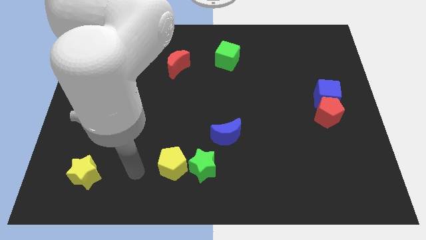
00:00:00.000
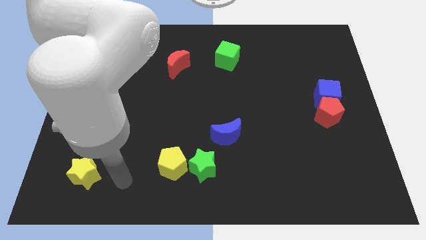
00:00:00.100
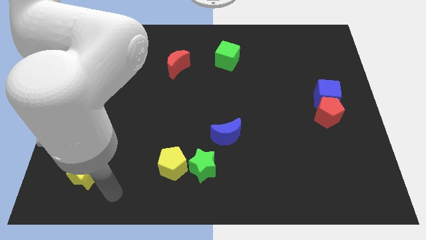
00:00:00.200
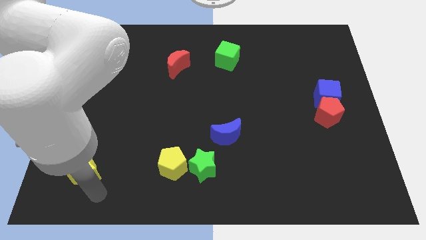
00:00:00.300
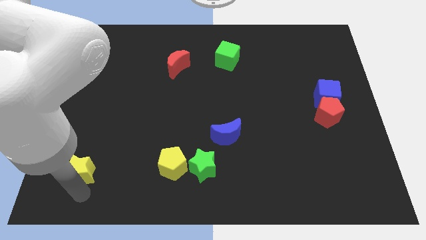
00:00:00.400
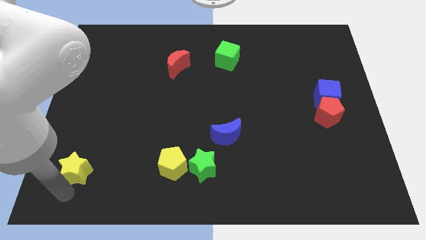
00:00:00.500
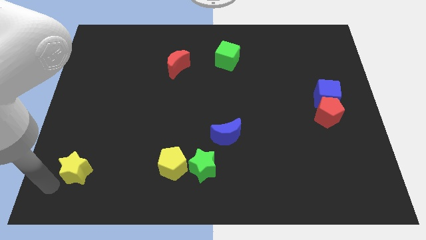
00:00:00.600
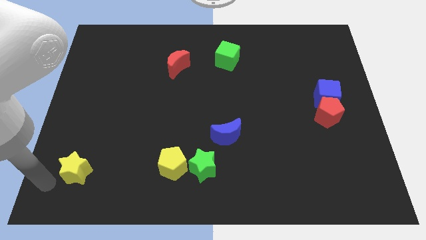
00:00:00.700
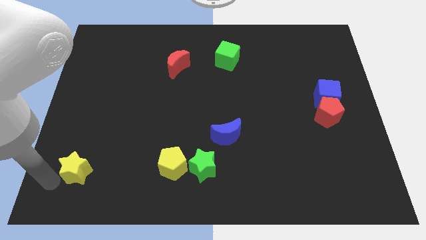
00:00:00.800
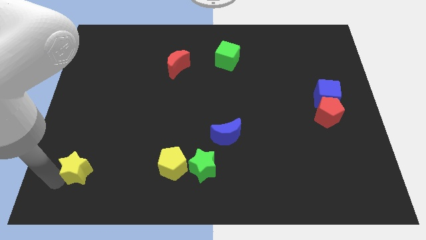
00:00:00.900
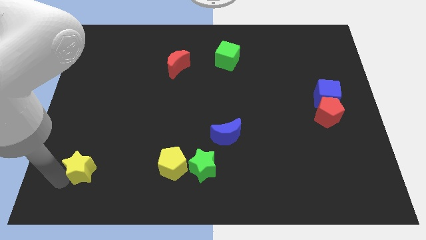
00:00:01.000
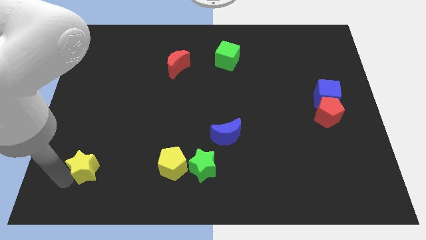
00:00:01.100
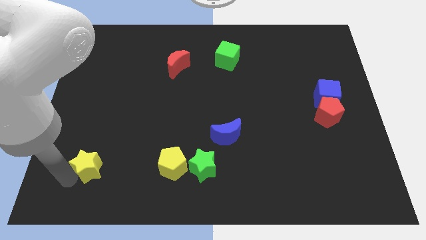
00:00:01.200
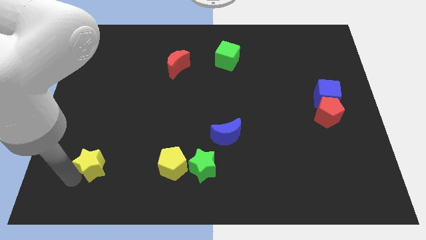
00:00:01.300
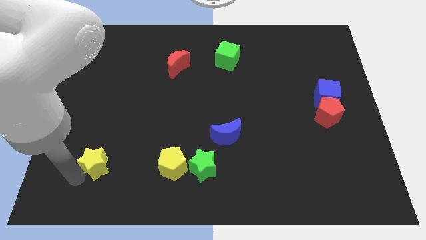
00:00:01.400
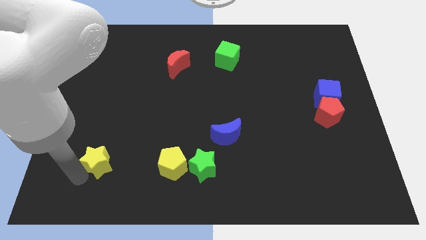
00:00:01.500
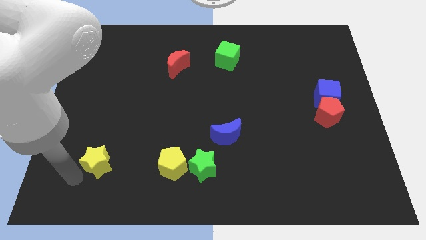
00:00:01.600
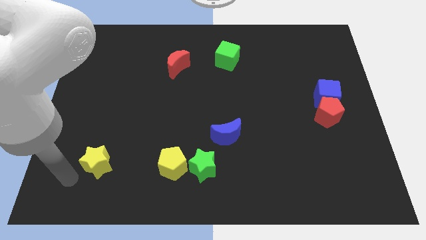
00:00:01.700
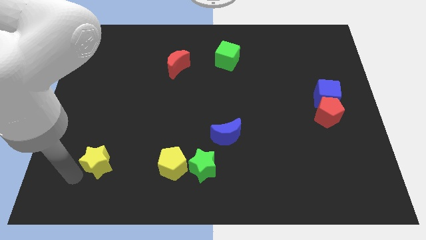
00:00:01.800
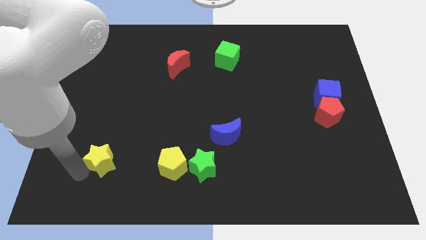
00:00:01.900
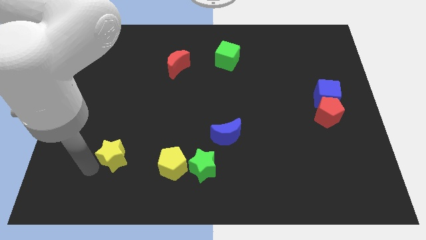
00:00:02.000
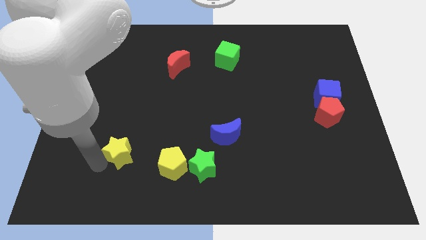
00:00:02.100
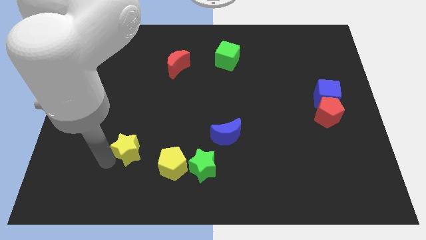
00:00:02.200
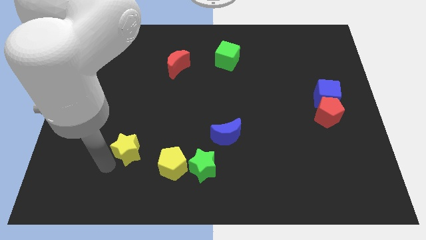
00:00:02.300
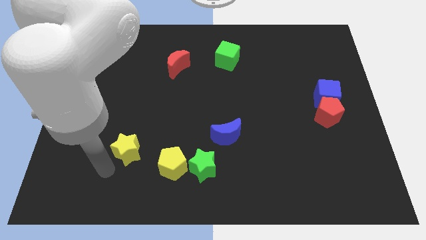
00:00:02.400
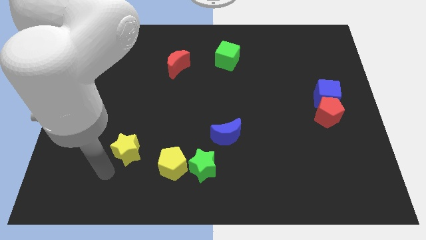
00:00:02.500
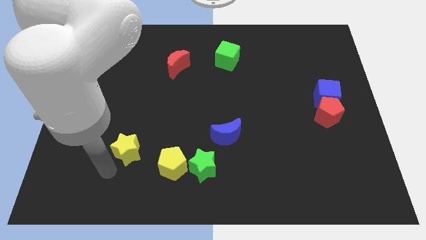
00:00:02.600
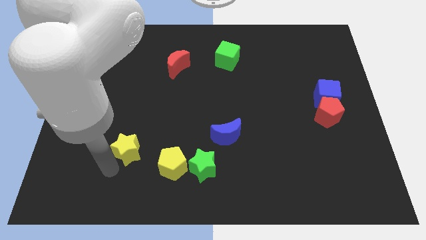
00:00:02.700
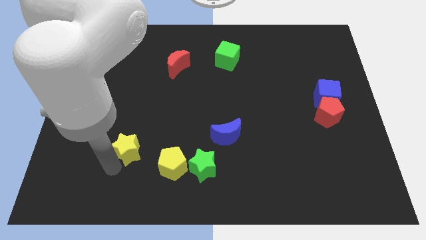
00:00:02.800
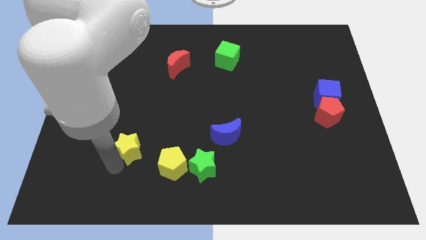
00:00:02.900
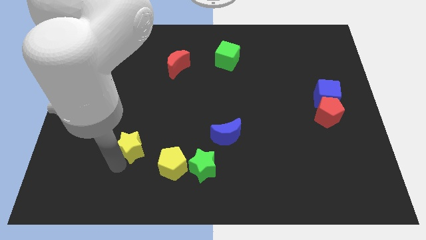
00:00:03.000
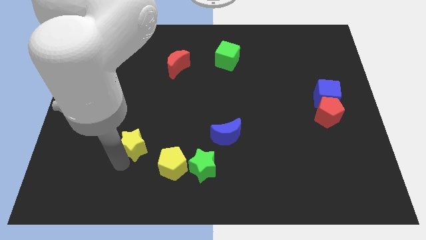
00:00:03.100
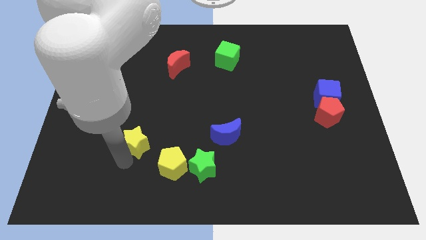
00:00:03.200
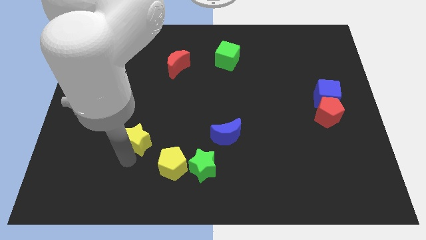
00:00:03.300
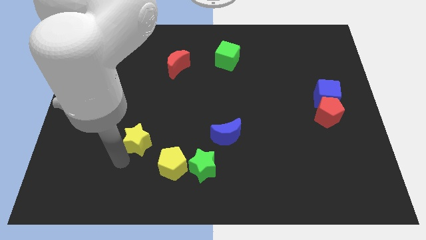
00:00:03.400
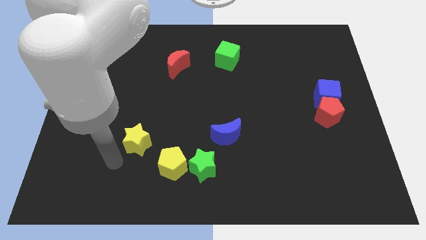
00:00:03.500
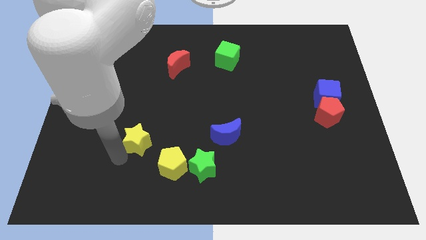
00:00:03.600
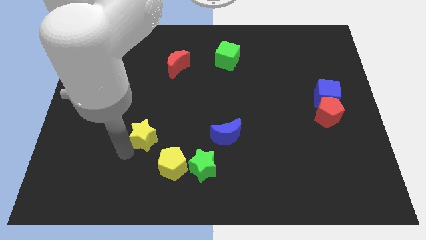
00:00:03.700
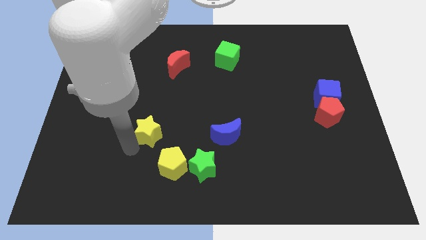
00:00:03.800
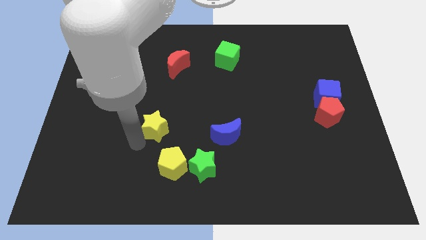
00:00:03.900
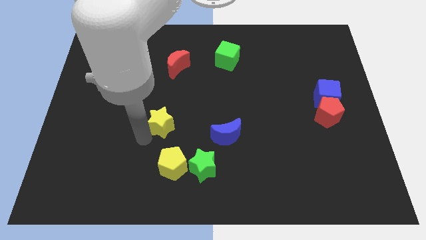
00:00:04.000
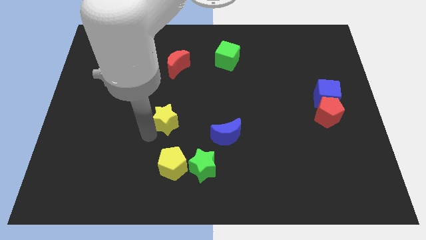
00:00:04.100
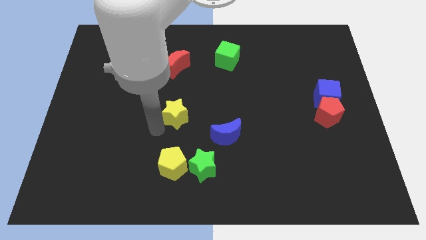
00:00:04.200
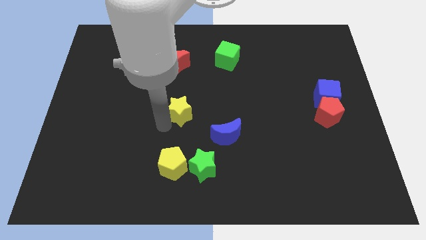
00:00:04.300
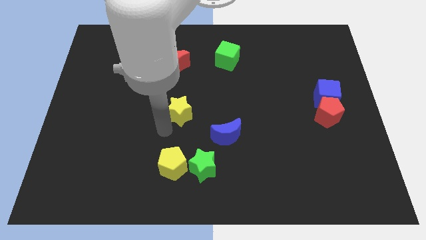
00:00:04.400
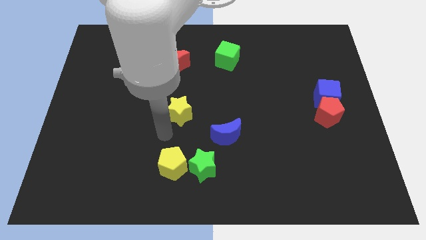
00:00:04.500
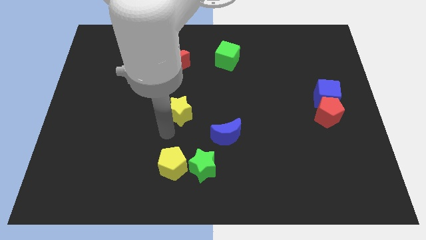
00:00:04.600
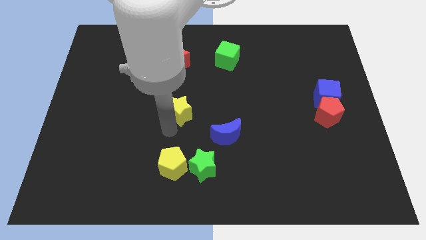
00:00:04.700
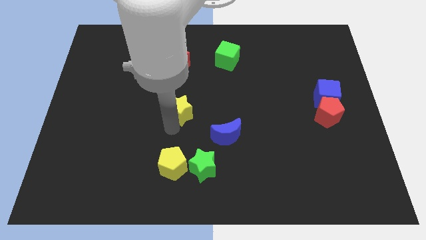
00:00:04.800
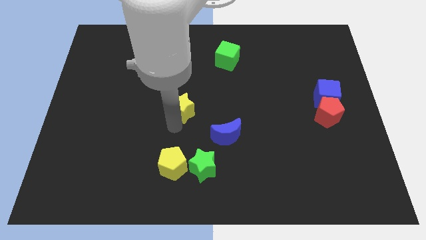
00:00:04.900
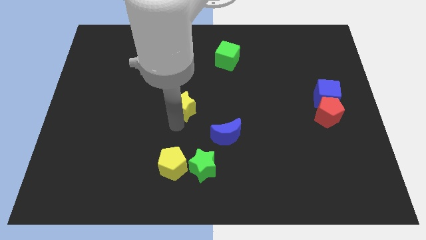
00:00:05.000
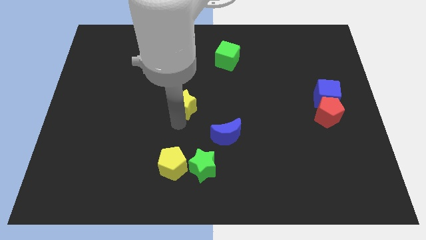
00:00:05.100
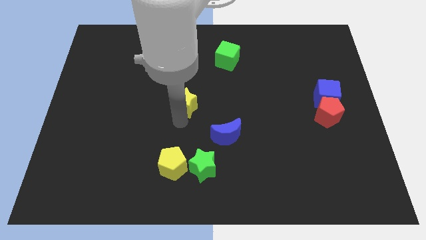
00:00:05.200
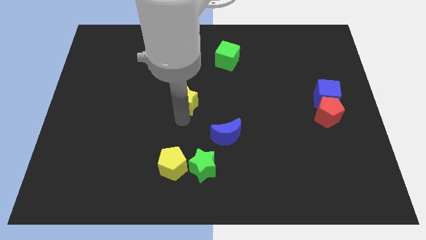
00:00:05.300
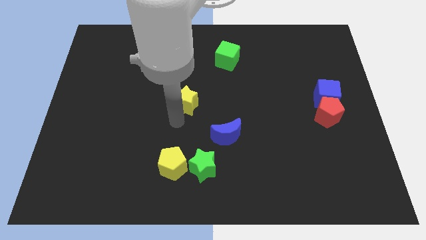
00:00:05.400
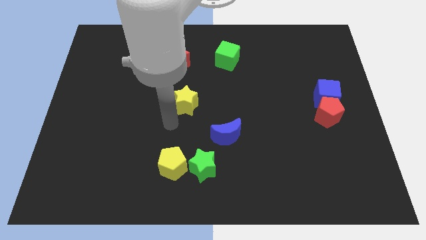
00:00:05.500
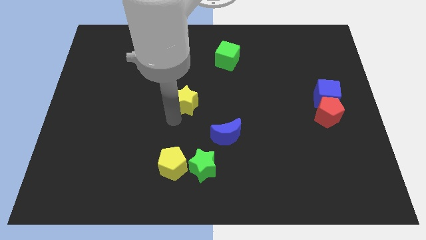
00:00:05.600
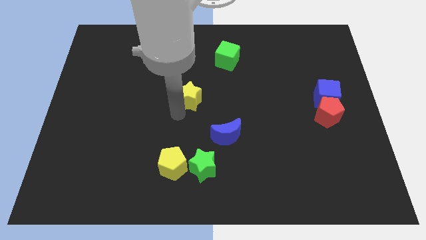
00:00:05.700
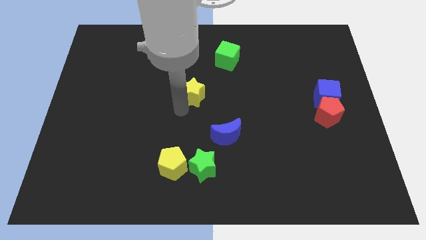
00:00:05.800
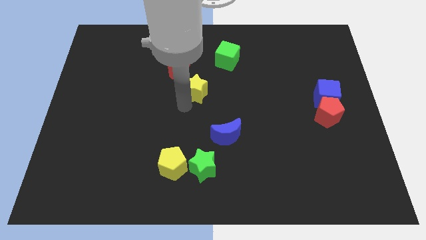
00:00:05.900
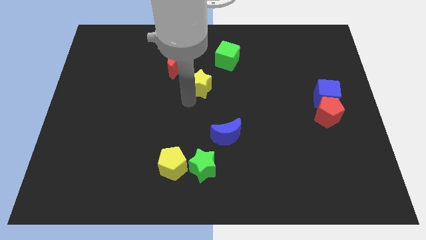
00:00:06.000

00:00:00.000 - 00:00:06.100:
move the yellow star to the bottom left side of the green cube

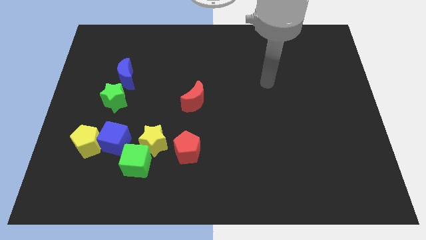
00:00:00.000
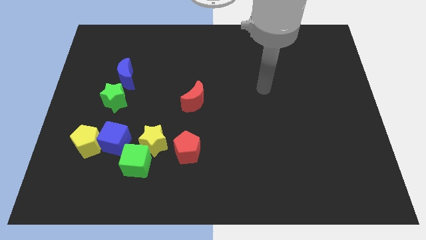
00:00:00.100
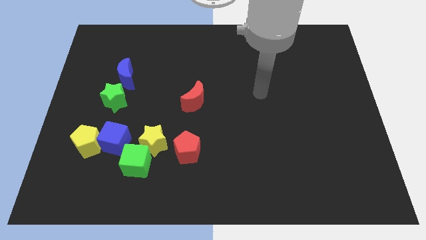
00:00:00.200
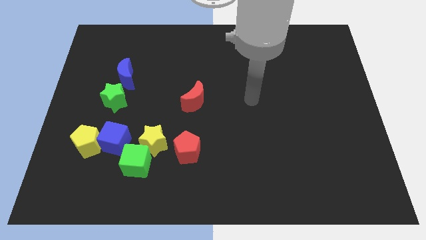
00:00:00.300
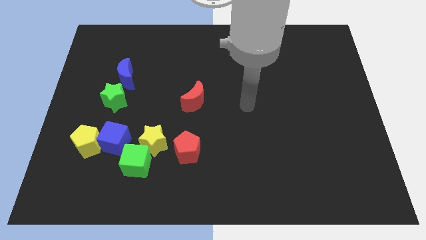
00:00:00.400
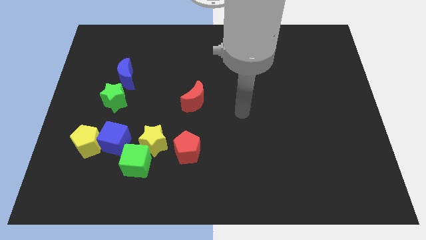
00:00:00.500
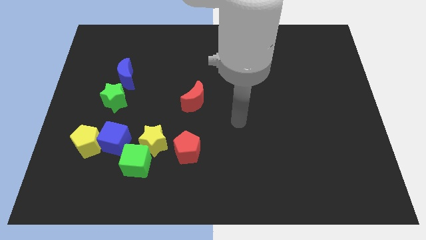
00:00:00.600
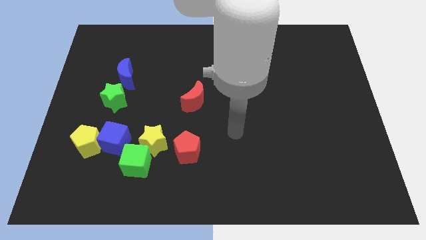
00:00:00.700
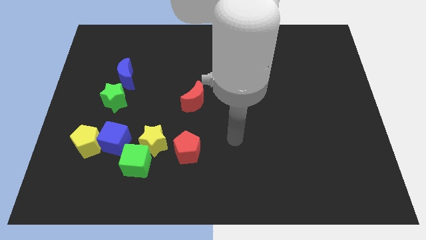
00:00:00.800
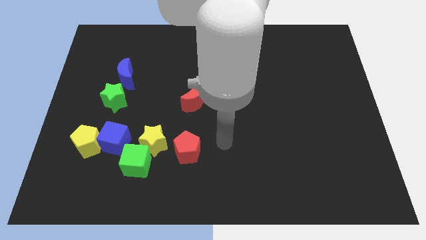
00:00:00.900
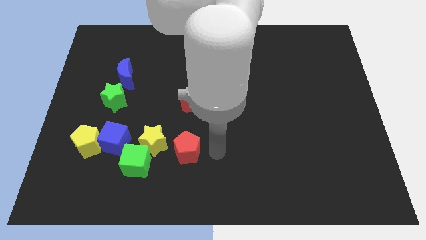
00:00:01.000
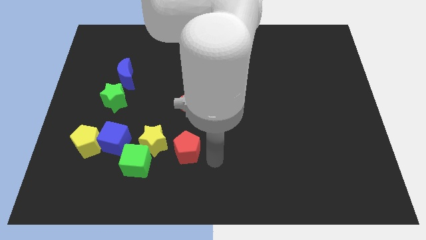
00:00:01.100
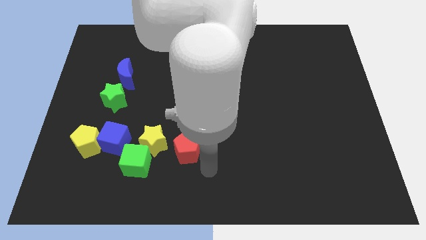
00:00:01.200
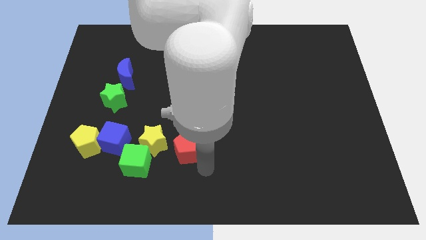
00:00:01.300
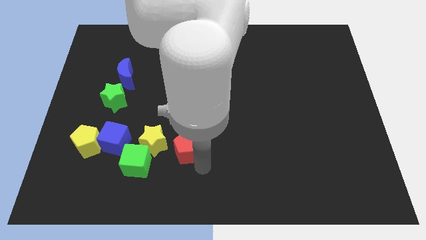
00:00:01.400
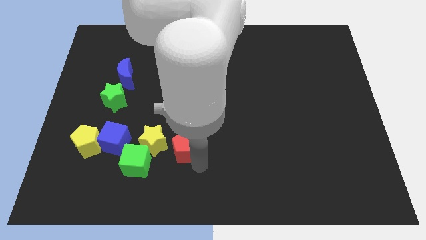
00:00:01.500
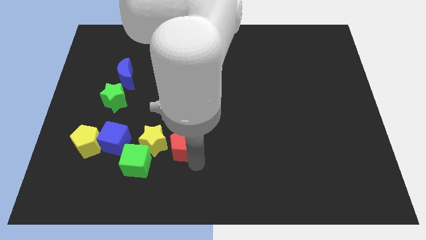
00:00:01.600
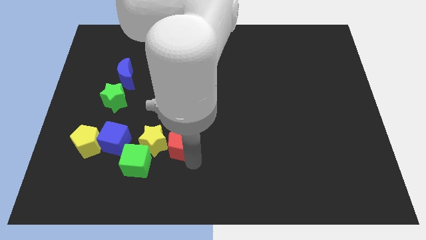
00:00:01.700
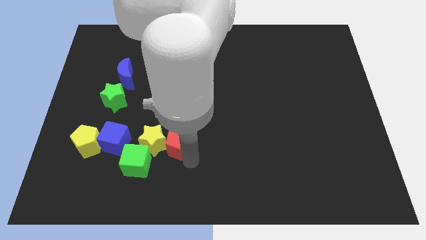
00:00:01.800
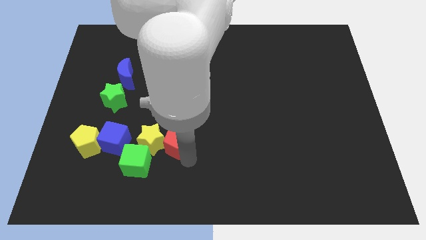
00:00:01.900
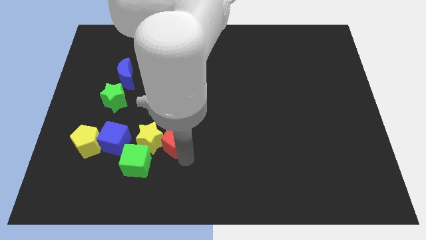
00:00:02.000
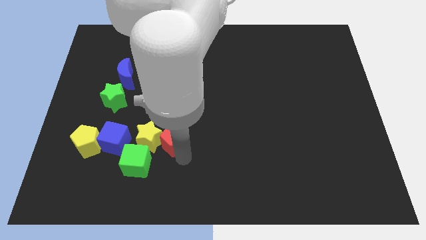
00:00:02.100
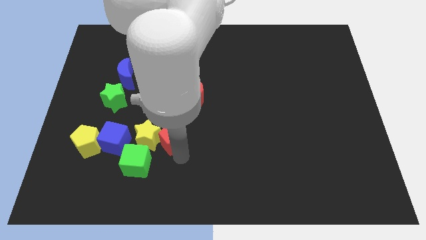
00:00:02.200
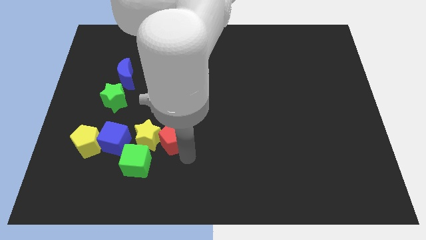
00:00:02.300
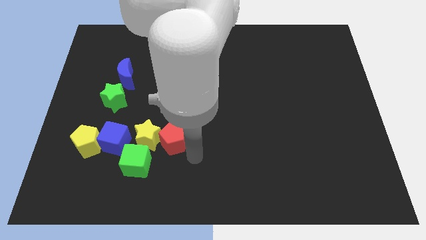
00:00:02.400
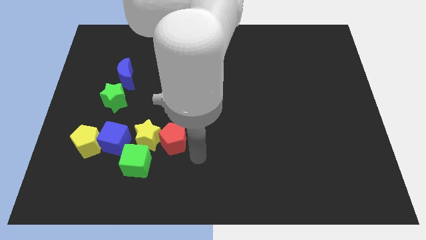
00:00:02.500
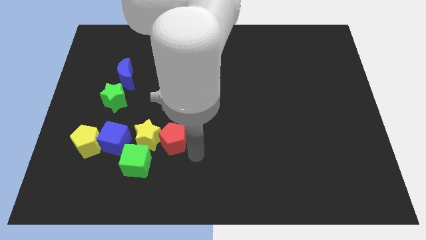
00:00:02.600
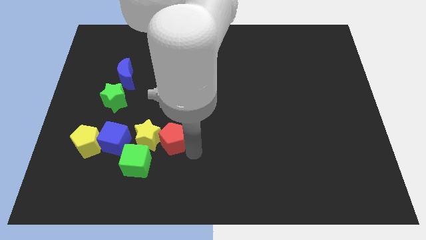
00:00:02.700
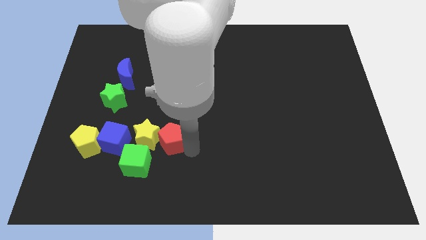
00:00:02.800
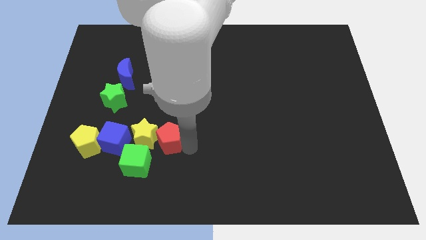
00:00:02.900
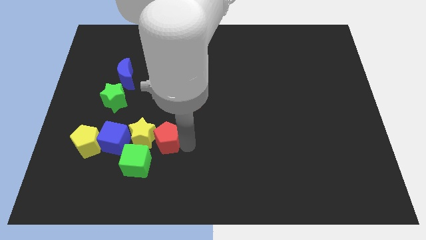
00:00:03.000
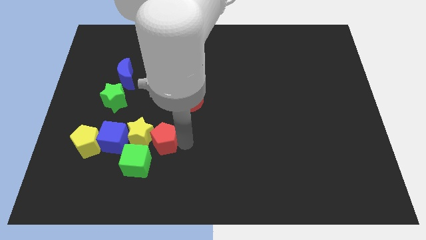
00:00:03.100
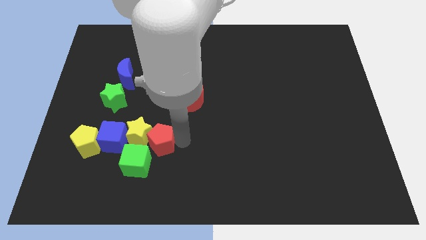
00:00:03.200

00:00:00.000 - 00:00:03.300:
push the red pentagon right of the yellow pentagon
